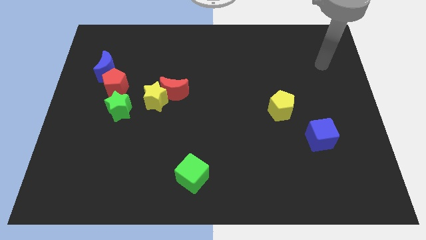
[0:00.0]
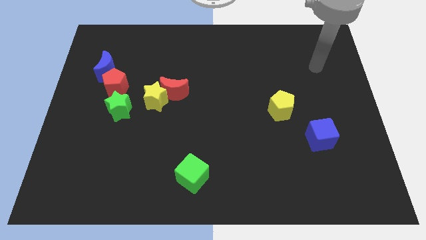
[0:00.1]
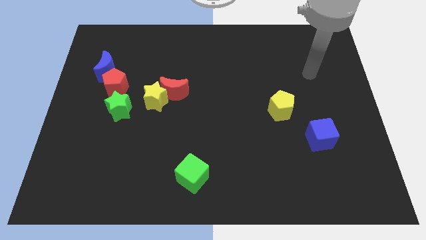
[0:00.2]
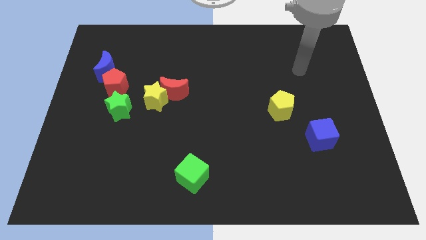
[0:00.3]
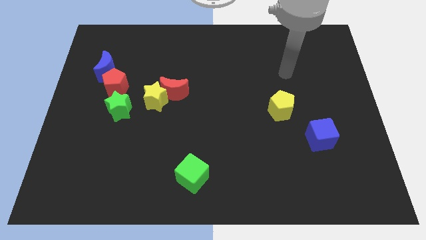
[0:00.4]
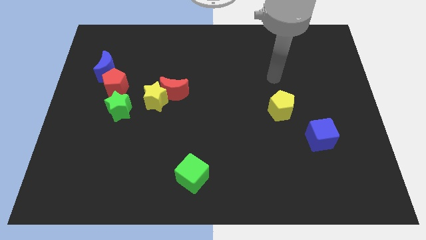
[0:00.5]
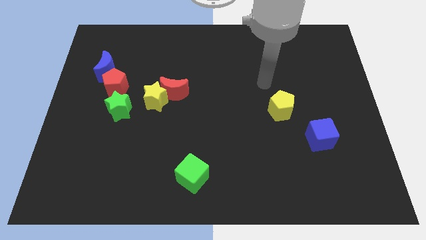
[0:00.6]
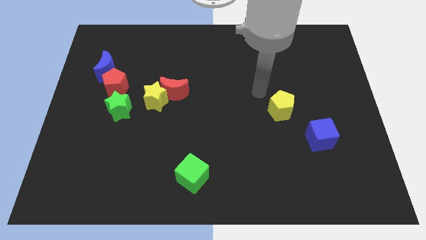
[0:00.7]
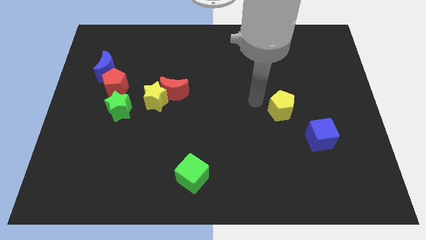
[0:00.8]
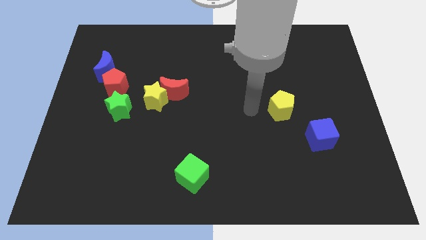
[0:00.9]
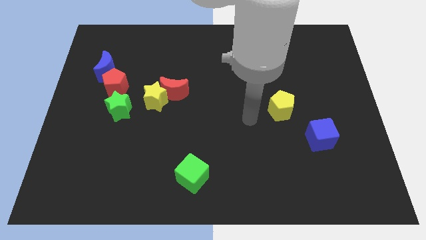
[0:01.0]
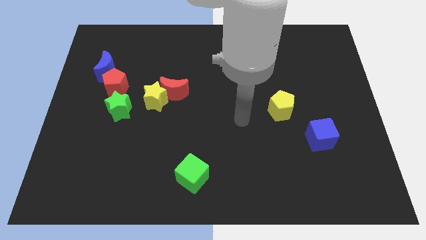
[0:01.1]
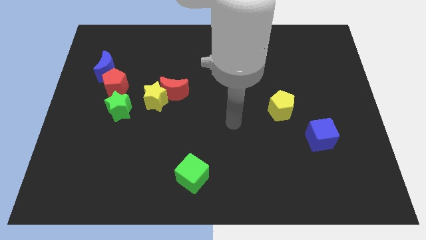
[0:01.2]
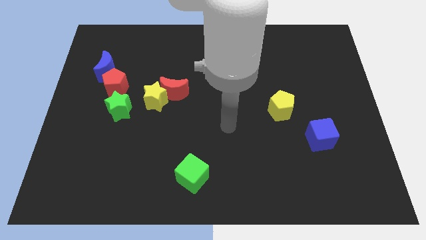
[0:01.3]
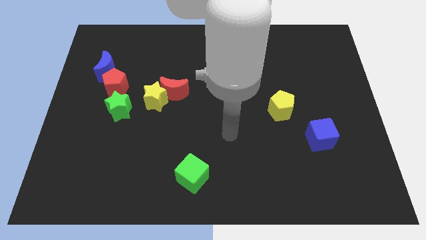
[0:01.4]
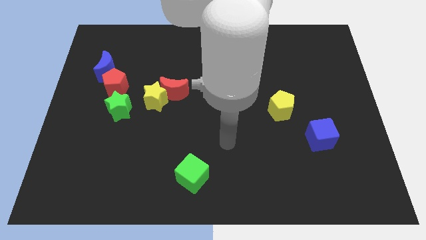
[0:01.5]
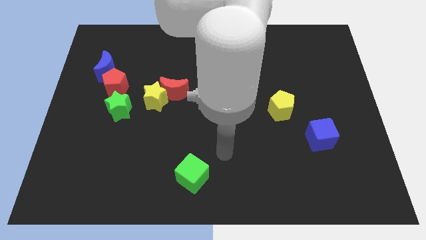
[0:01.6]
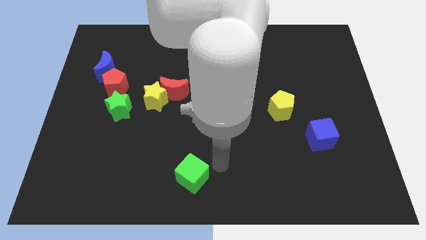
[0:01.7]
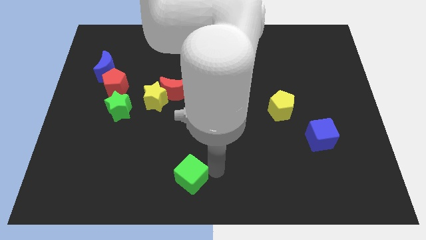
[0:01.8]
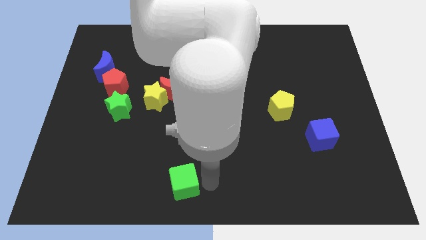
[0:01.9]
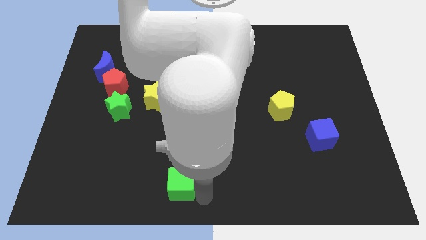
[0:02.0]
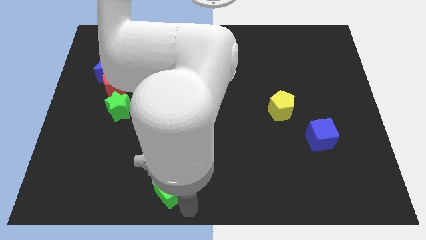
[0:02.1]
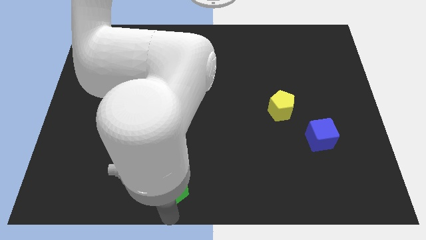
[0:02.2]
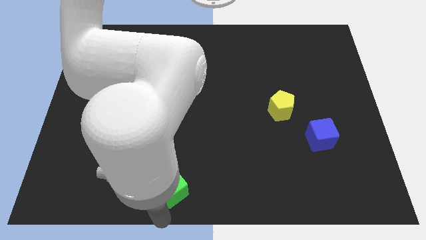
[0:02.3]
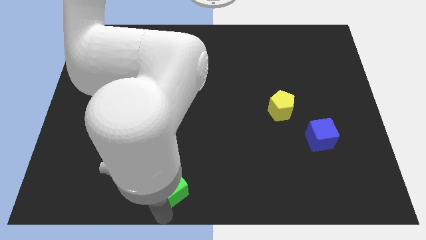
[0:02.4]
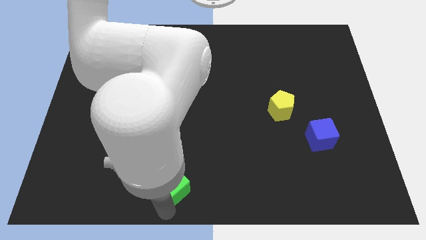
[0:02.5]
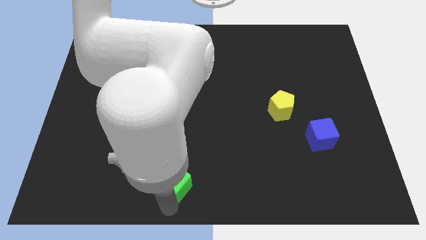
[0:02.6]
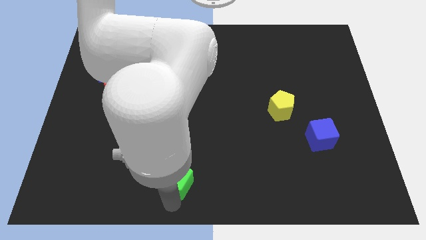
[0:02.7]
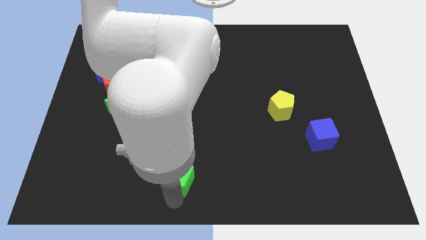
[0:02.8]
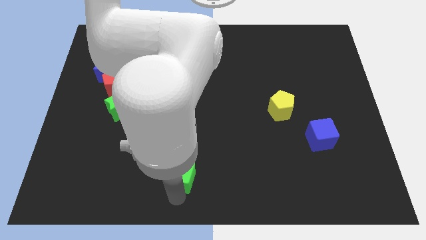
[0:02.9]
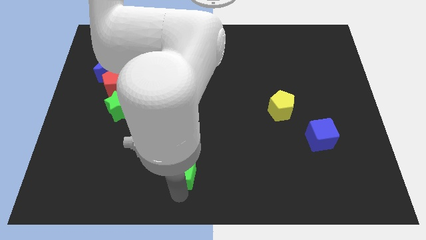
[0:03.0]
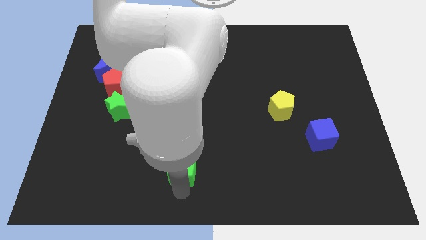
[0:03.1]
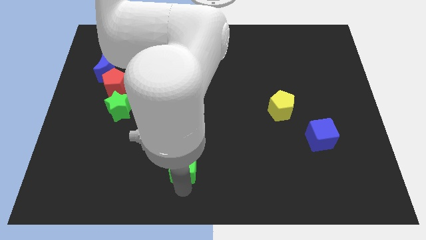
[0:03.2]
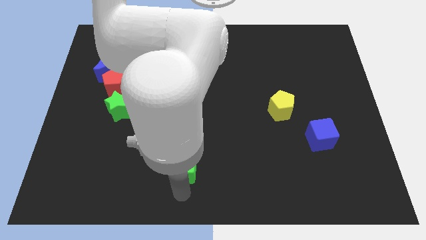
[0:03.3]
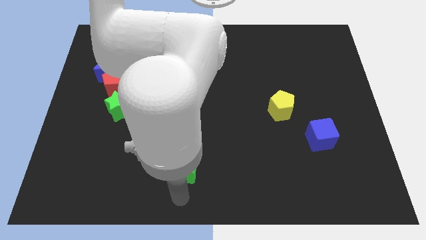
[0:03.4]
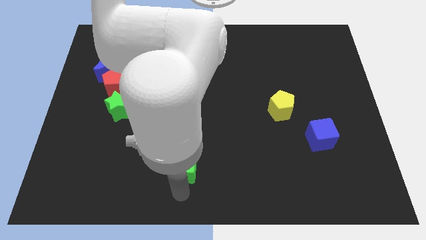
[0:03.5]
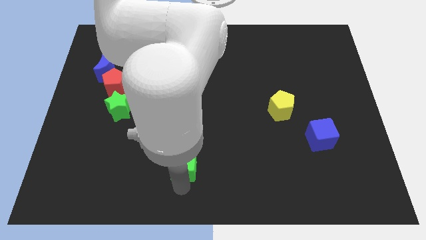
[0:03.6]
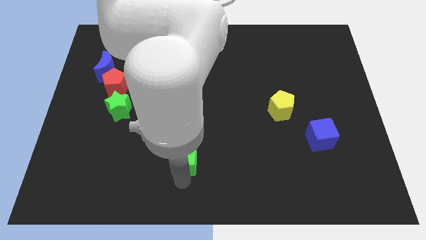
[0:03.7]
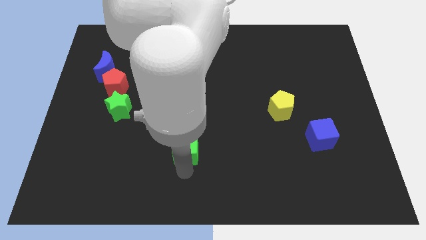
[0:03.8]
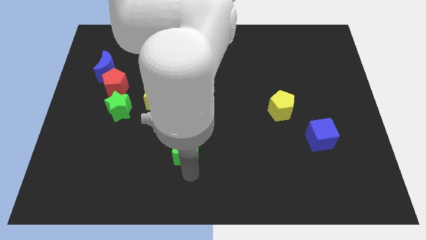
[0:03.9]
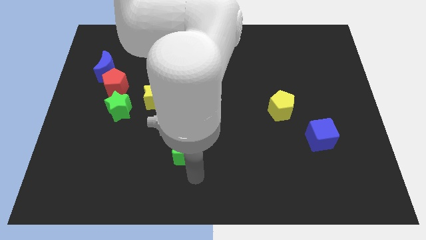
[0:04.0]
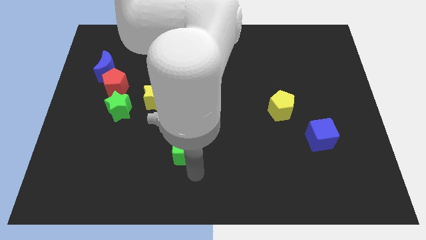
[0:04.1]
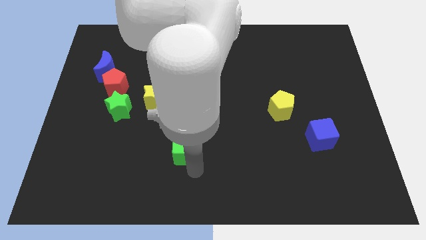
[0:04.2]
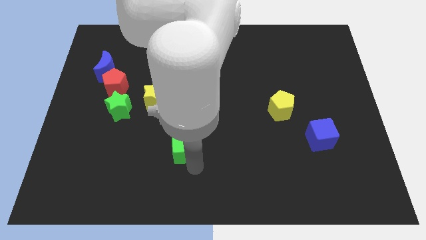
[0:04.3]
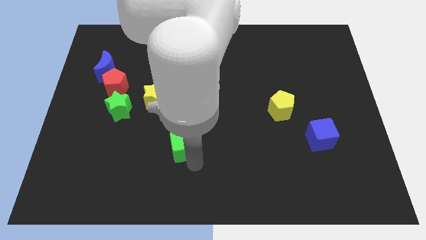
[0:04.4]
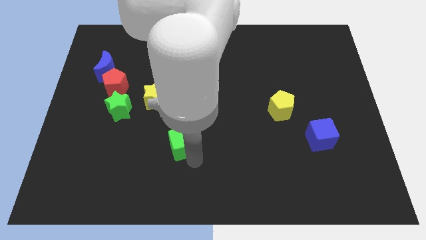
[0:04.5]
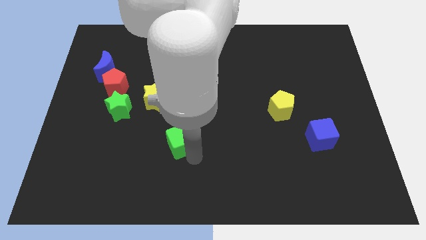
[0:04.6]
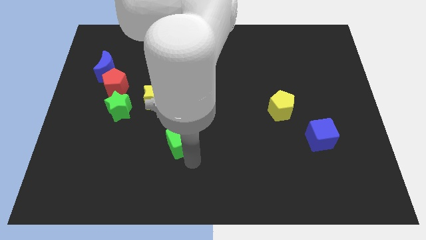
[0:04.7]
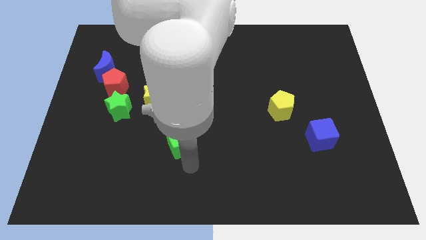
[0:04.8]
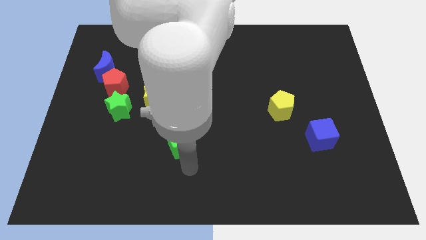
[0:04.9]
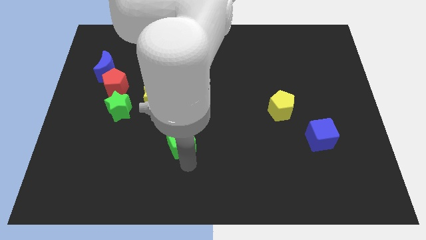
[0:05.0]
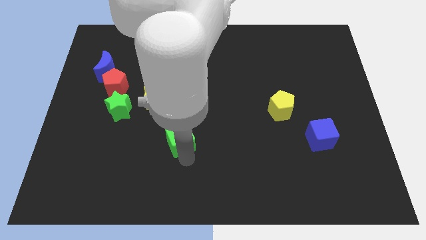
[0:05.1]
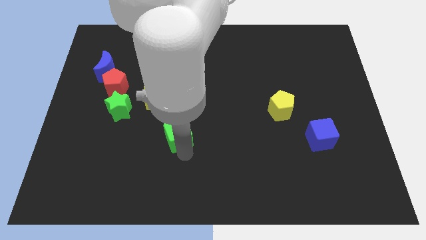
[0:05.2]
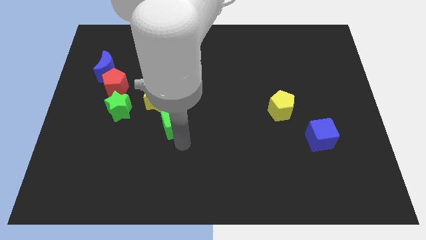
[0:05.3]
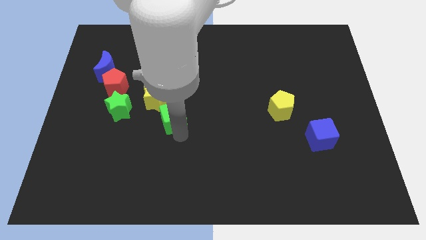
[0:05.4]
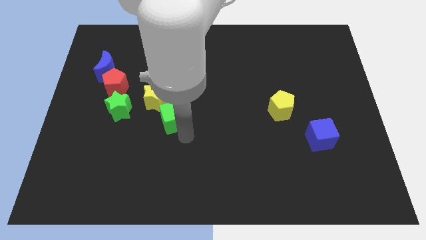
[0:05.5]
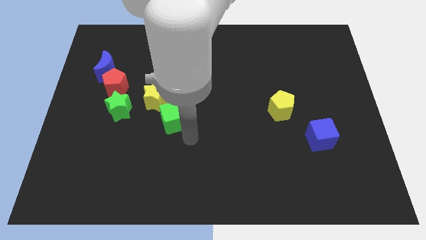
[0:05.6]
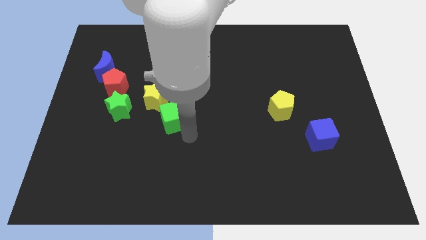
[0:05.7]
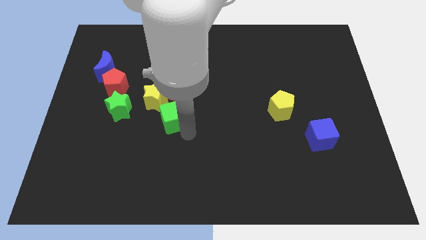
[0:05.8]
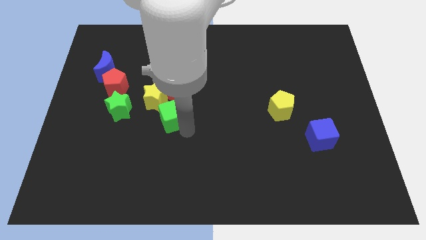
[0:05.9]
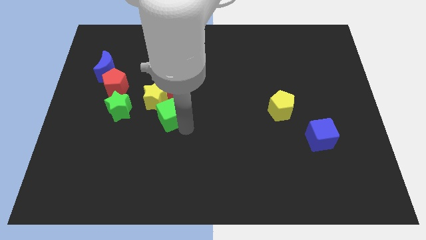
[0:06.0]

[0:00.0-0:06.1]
put the green cube next to the yellow star

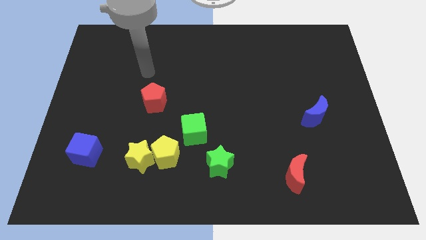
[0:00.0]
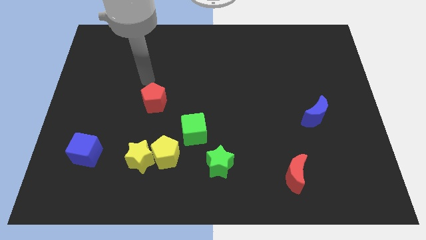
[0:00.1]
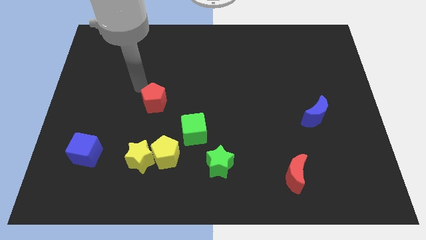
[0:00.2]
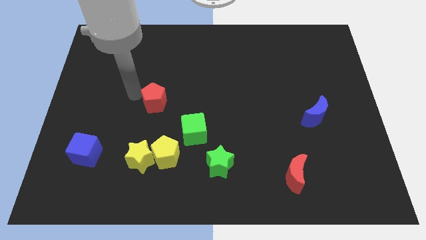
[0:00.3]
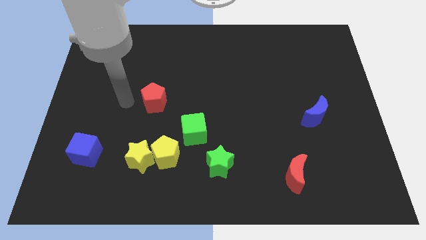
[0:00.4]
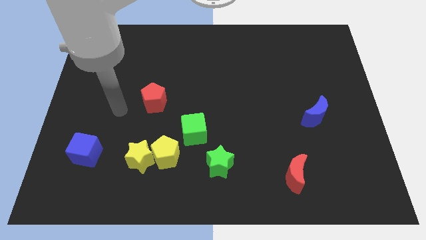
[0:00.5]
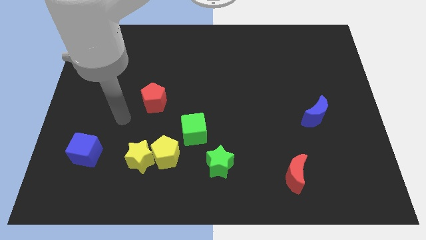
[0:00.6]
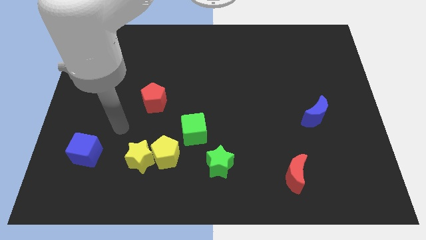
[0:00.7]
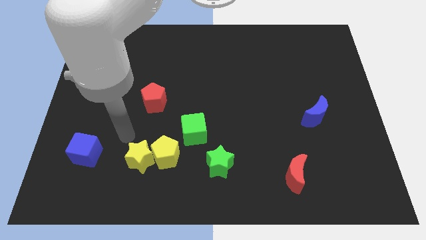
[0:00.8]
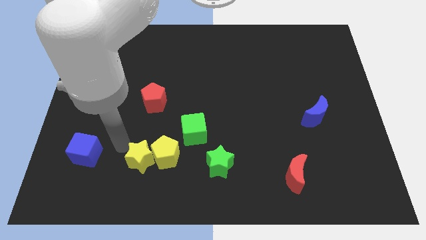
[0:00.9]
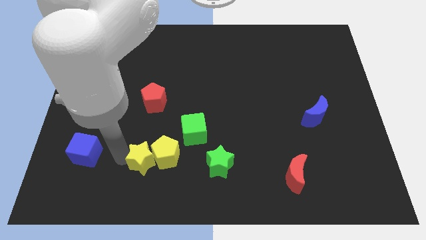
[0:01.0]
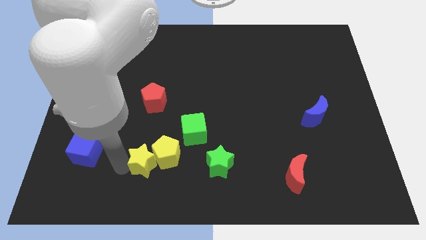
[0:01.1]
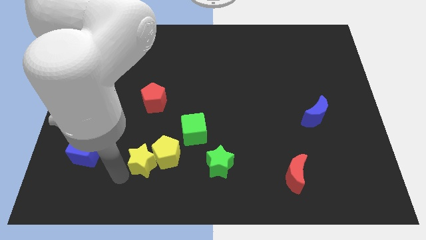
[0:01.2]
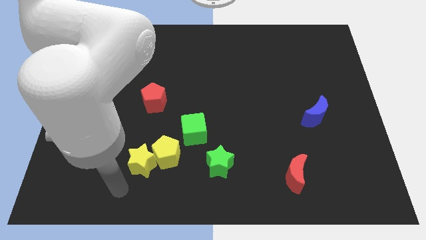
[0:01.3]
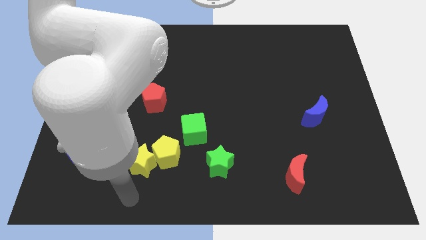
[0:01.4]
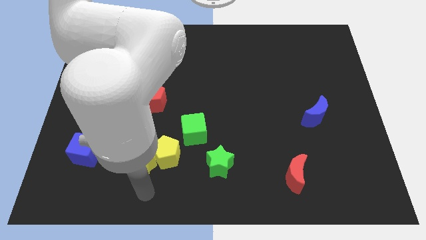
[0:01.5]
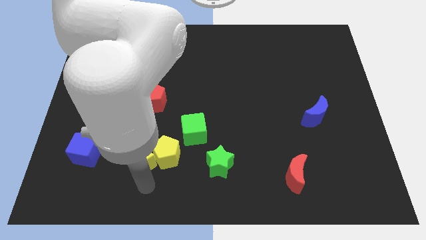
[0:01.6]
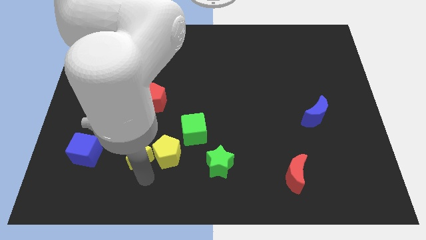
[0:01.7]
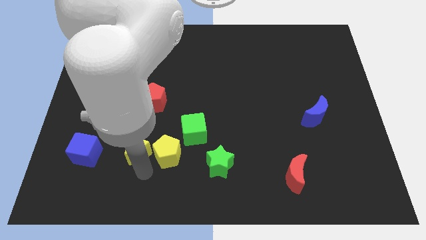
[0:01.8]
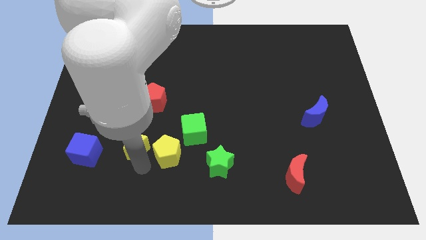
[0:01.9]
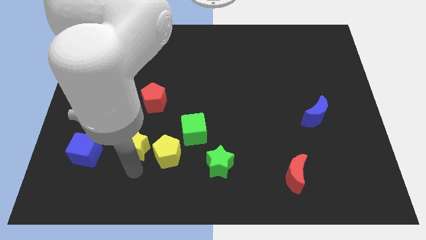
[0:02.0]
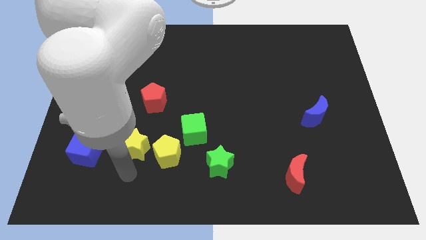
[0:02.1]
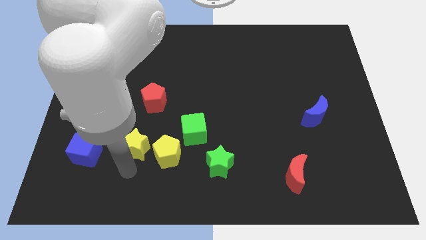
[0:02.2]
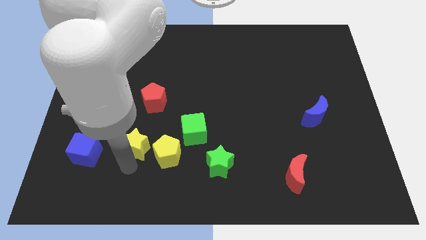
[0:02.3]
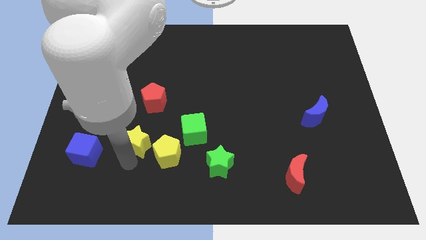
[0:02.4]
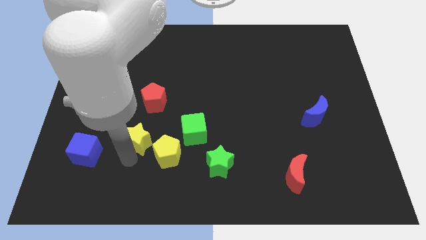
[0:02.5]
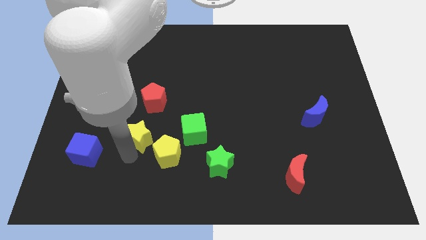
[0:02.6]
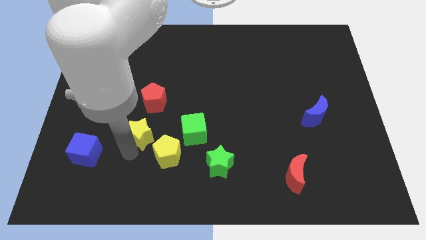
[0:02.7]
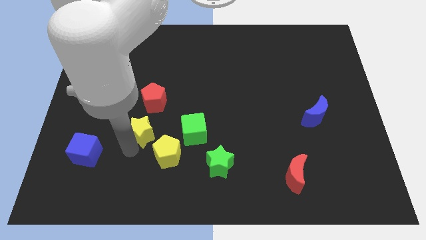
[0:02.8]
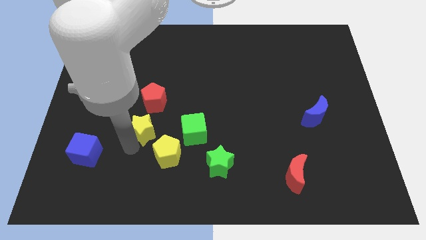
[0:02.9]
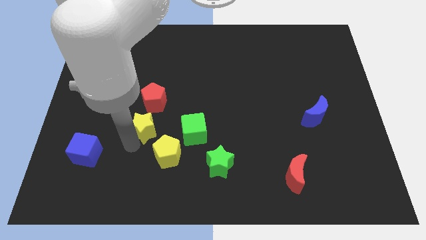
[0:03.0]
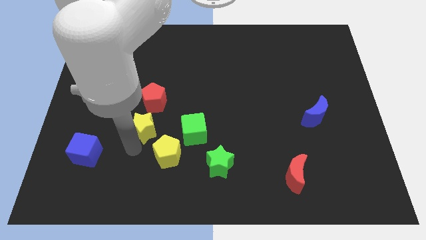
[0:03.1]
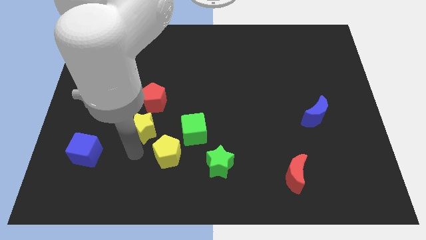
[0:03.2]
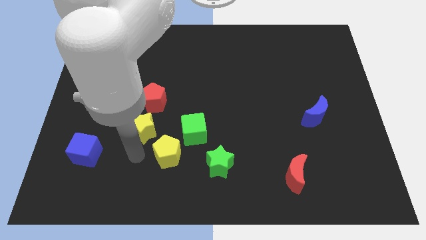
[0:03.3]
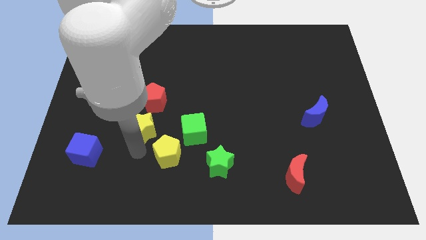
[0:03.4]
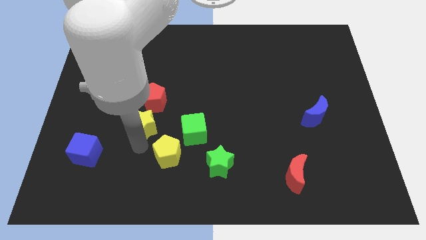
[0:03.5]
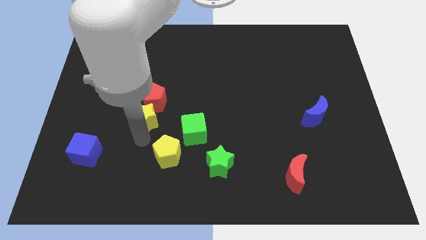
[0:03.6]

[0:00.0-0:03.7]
move the yellow star towards the red pentagon
